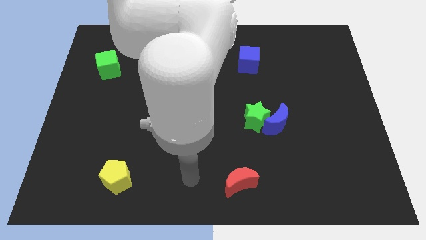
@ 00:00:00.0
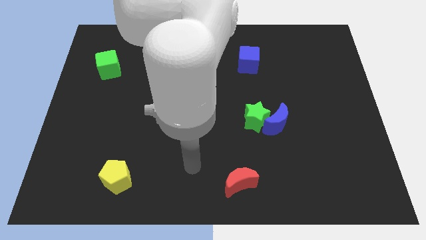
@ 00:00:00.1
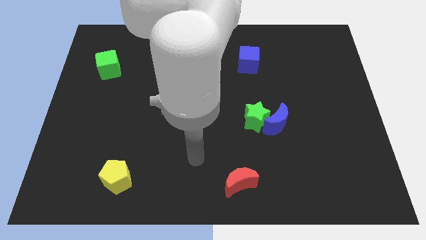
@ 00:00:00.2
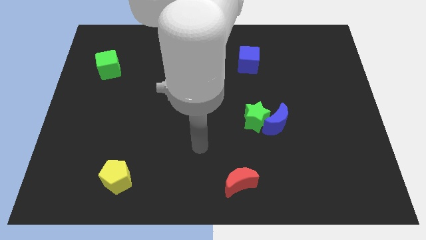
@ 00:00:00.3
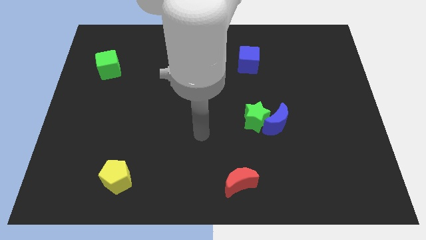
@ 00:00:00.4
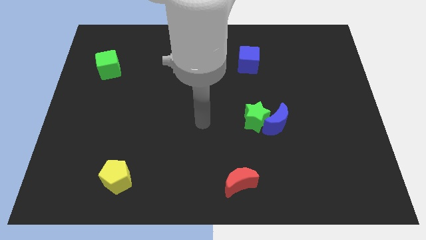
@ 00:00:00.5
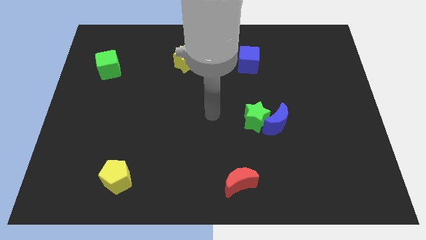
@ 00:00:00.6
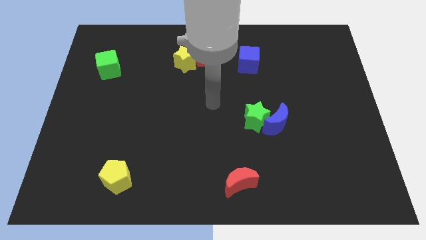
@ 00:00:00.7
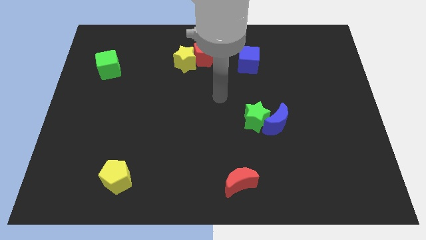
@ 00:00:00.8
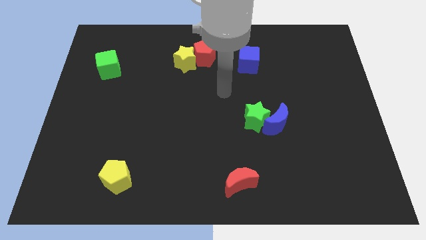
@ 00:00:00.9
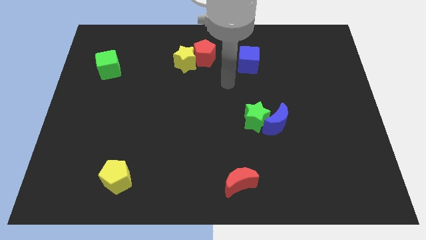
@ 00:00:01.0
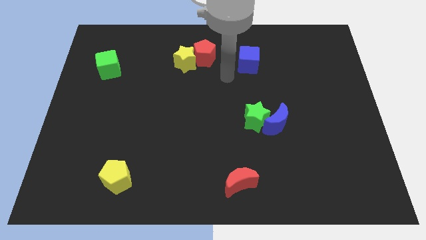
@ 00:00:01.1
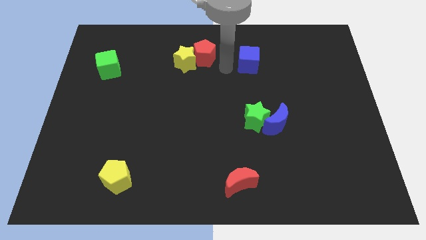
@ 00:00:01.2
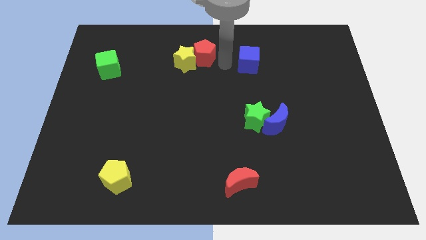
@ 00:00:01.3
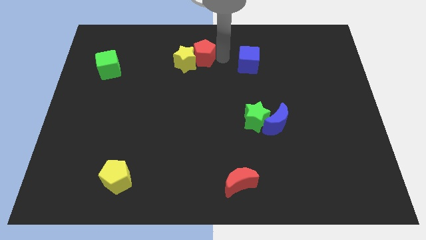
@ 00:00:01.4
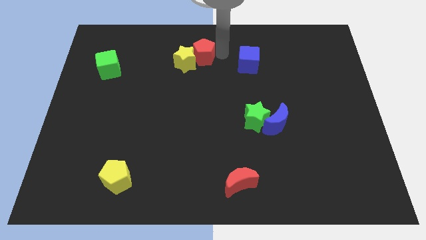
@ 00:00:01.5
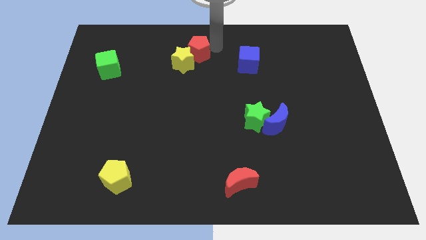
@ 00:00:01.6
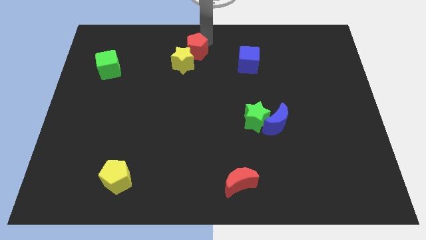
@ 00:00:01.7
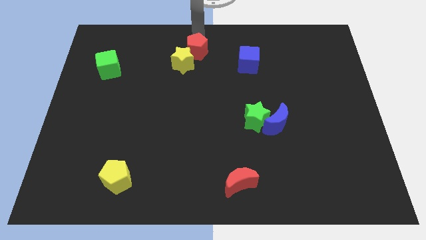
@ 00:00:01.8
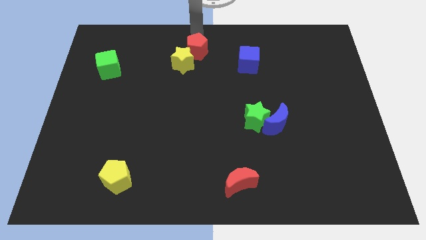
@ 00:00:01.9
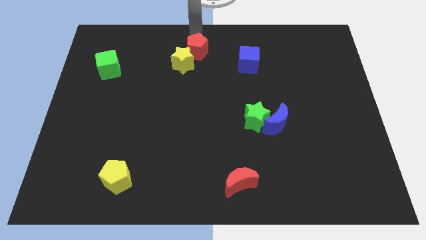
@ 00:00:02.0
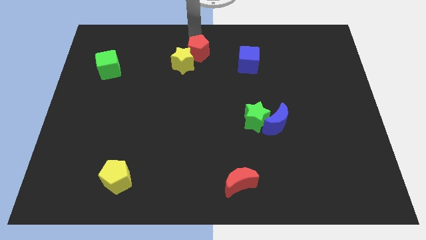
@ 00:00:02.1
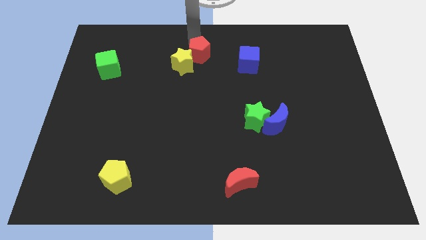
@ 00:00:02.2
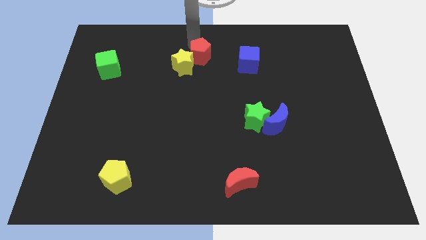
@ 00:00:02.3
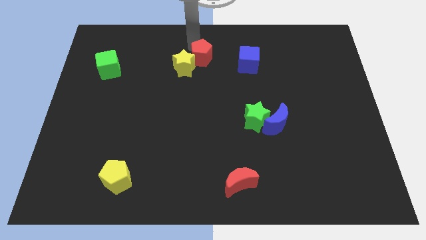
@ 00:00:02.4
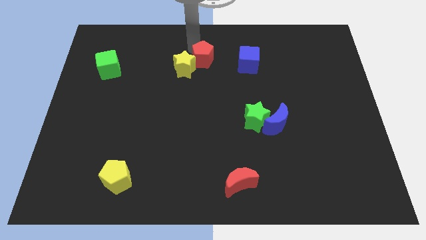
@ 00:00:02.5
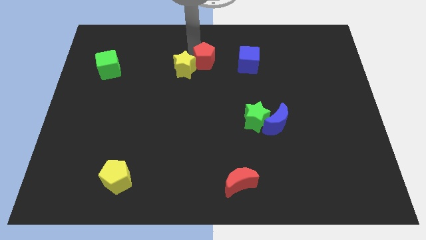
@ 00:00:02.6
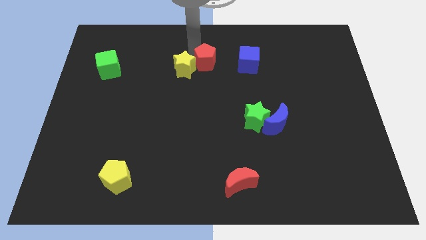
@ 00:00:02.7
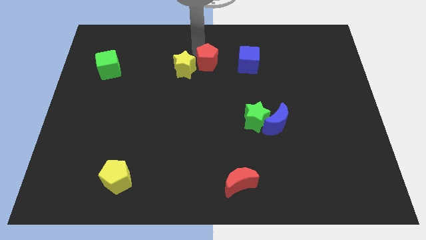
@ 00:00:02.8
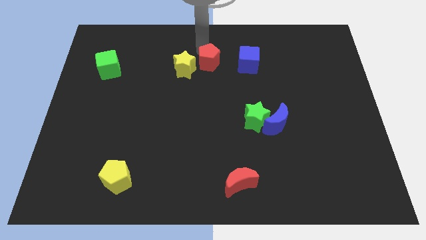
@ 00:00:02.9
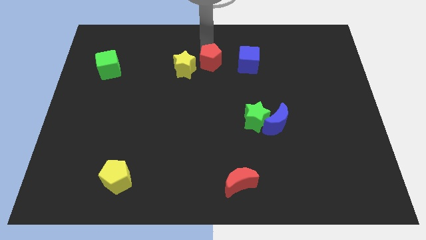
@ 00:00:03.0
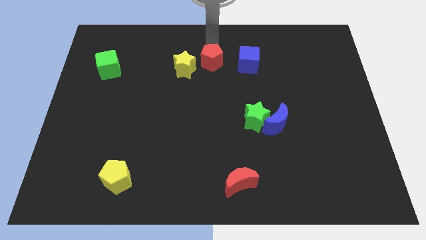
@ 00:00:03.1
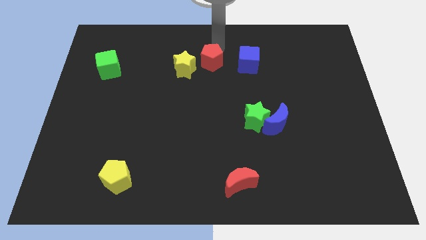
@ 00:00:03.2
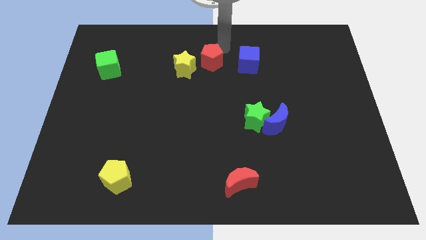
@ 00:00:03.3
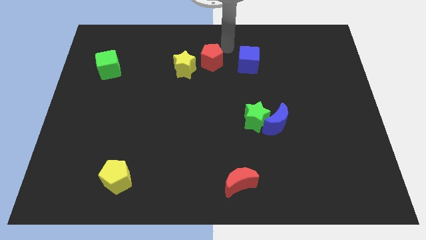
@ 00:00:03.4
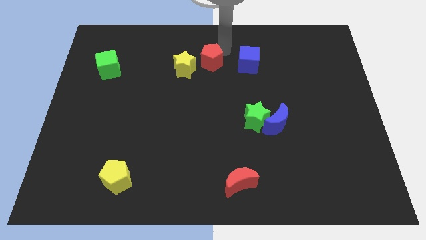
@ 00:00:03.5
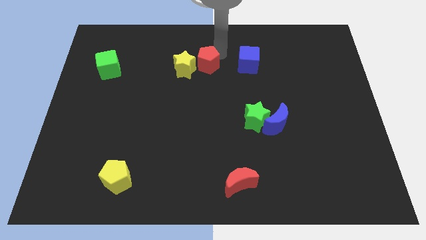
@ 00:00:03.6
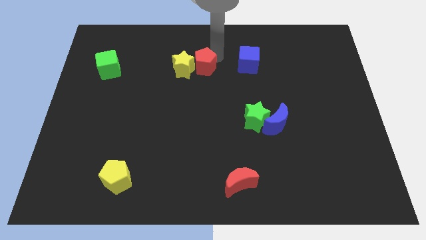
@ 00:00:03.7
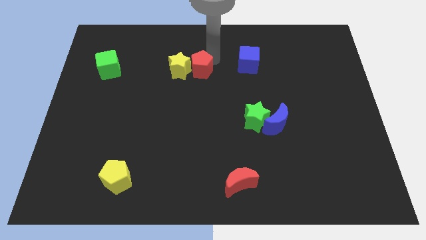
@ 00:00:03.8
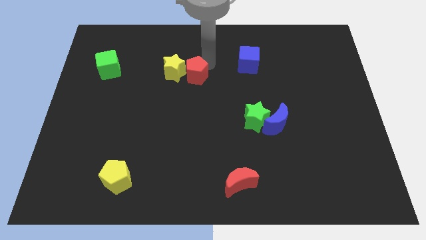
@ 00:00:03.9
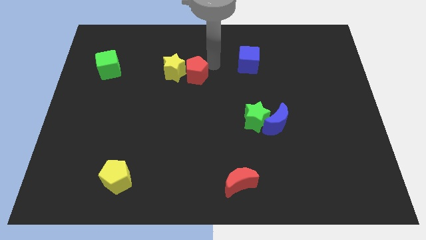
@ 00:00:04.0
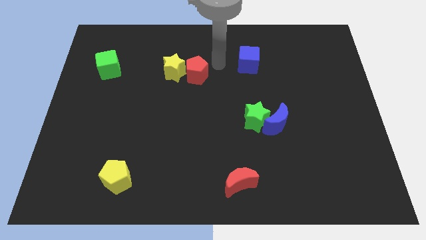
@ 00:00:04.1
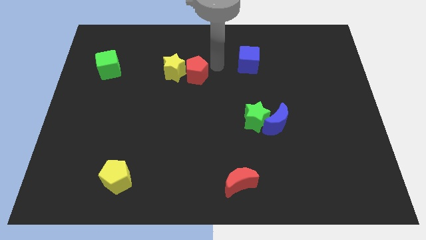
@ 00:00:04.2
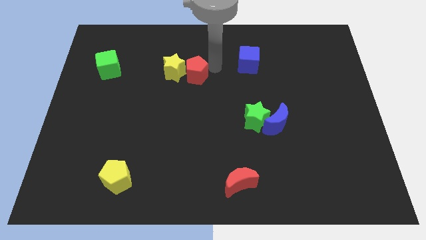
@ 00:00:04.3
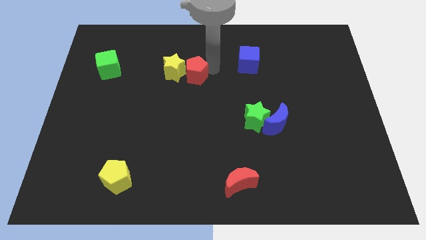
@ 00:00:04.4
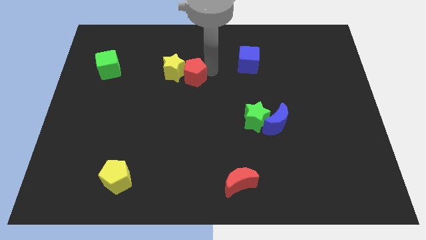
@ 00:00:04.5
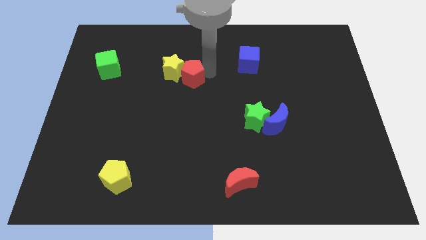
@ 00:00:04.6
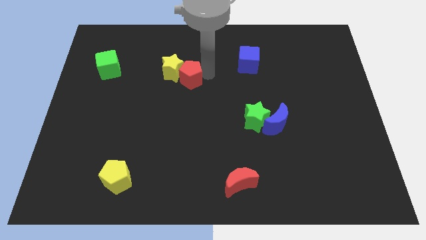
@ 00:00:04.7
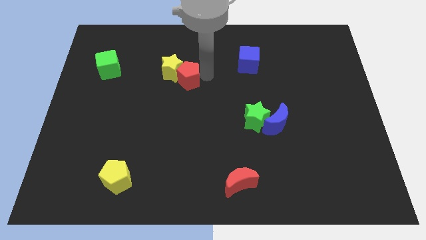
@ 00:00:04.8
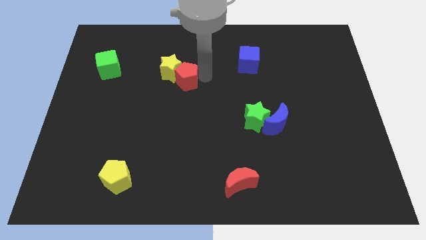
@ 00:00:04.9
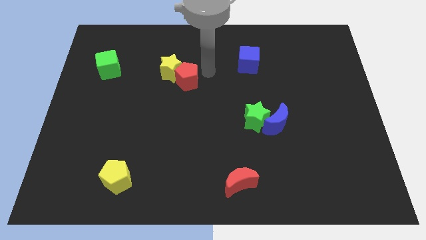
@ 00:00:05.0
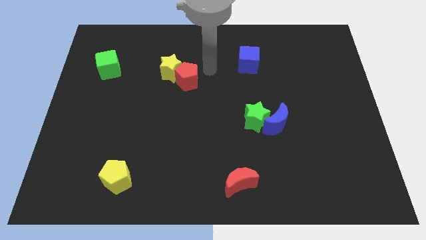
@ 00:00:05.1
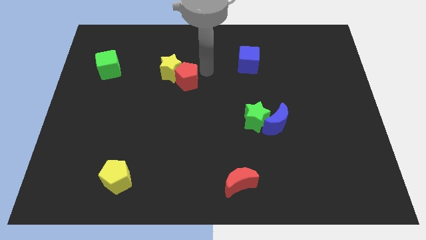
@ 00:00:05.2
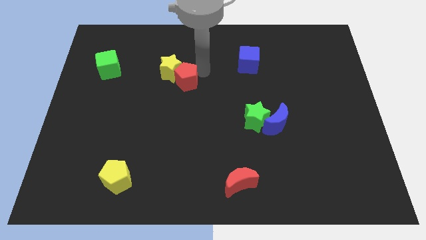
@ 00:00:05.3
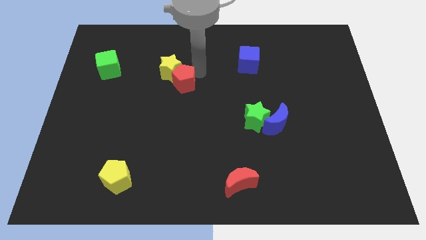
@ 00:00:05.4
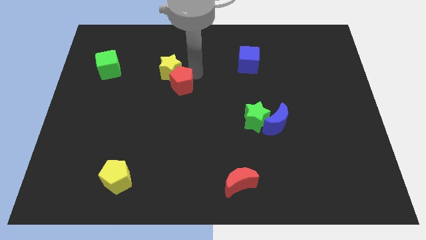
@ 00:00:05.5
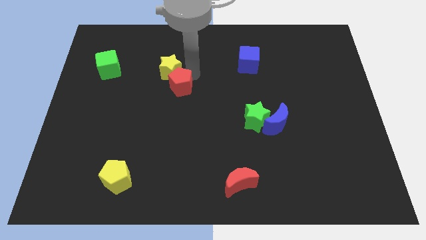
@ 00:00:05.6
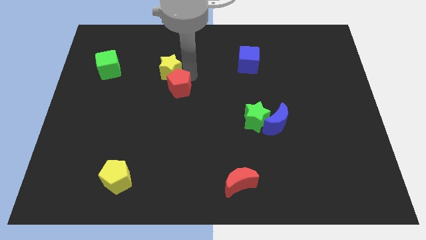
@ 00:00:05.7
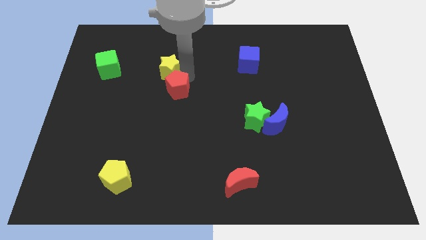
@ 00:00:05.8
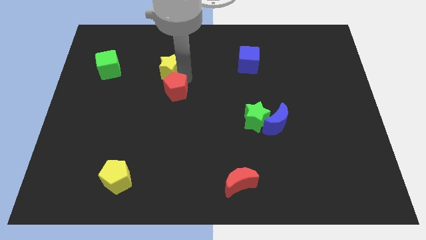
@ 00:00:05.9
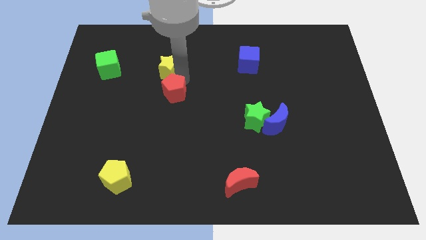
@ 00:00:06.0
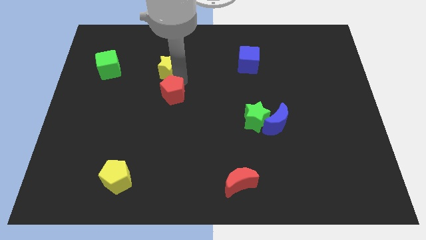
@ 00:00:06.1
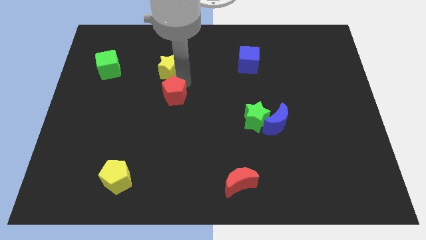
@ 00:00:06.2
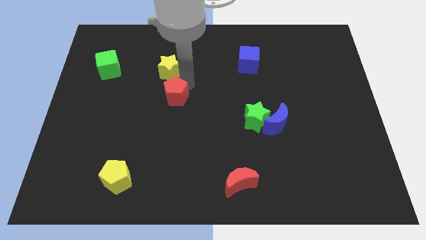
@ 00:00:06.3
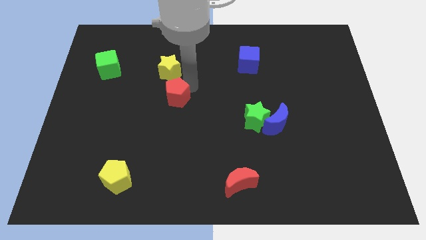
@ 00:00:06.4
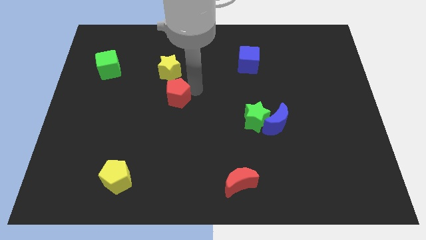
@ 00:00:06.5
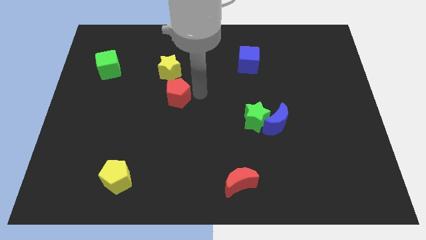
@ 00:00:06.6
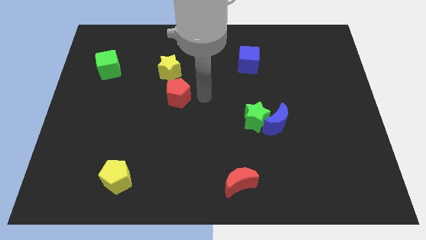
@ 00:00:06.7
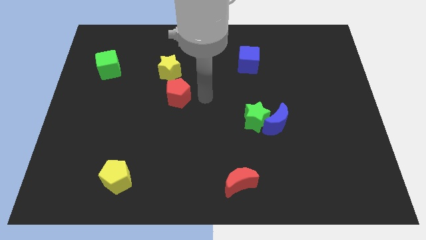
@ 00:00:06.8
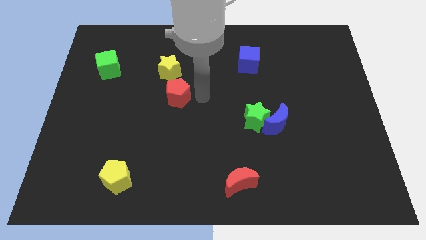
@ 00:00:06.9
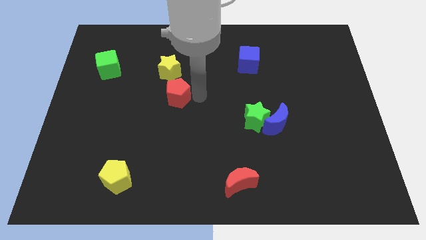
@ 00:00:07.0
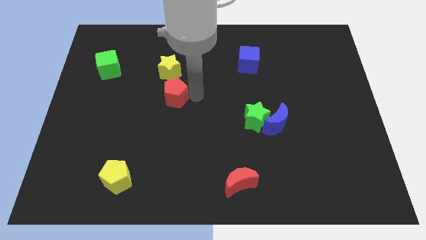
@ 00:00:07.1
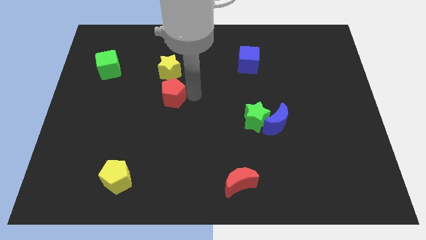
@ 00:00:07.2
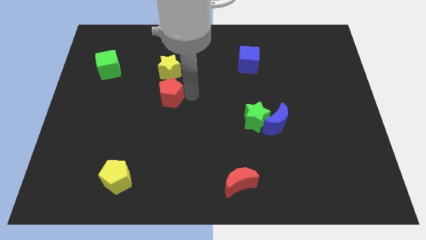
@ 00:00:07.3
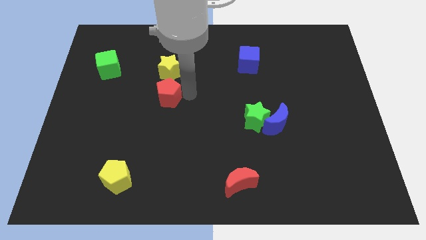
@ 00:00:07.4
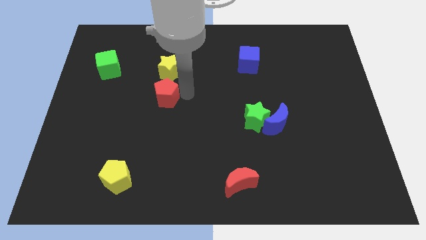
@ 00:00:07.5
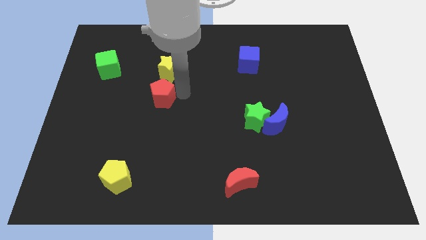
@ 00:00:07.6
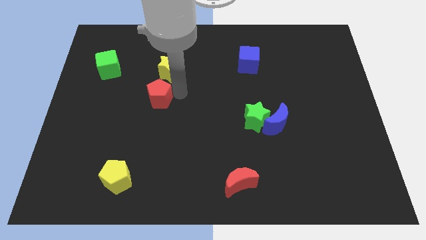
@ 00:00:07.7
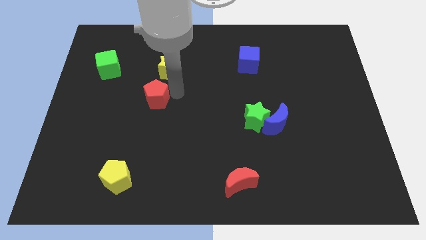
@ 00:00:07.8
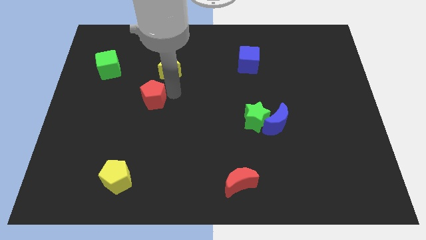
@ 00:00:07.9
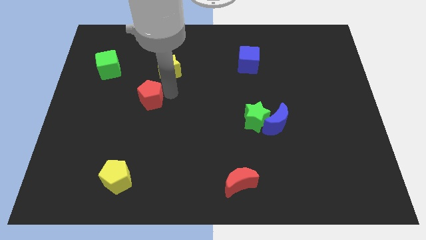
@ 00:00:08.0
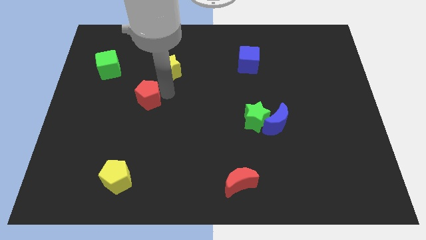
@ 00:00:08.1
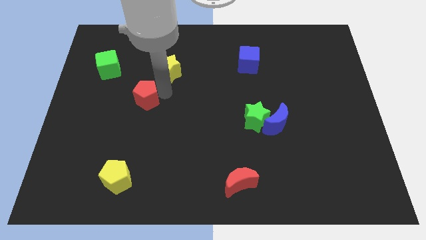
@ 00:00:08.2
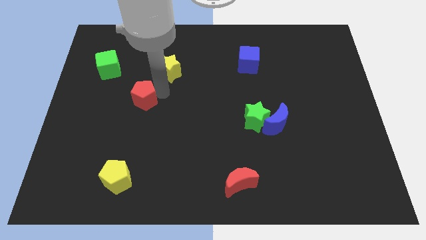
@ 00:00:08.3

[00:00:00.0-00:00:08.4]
slide the red pentagon diagonally down and left
